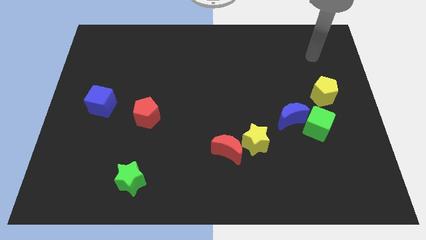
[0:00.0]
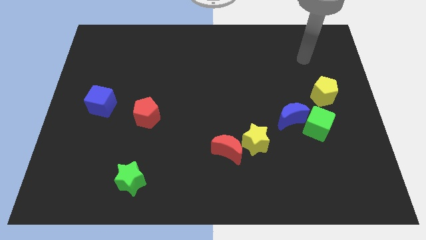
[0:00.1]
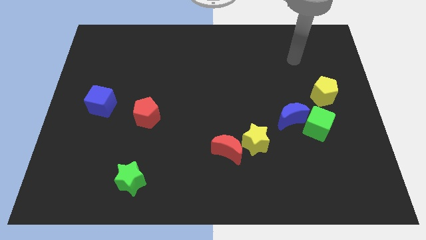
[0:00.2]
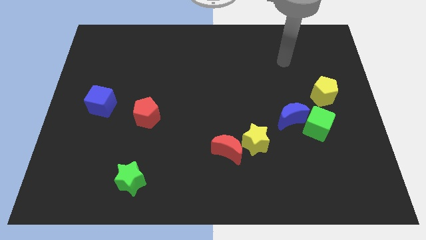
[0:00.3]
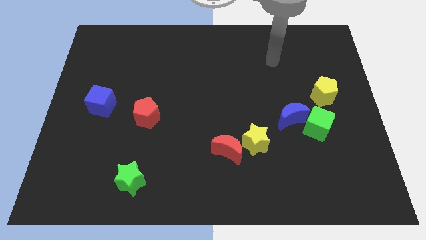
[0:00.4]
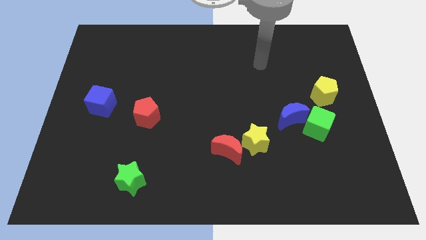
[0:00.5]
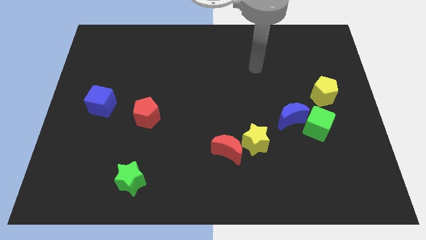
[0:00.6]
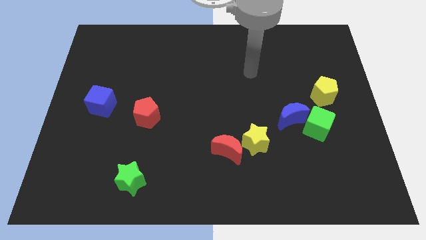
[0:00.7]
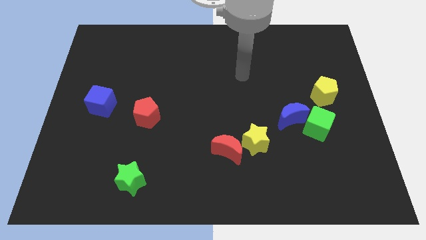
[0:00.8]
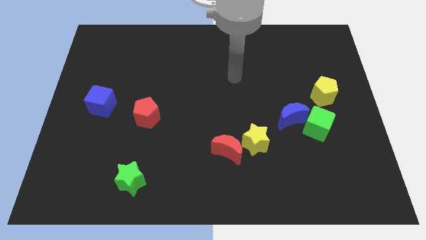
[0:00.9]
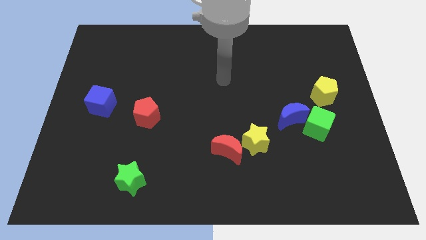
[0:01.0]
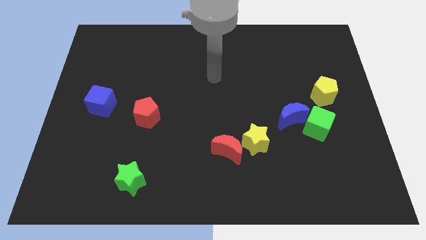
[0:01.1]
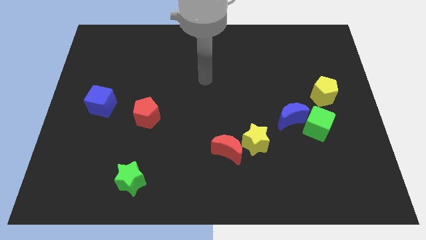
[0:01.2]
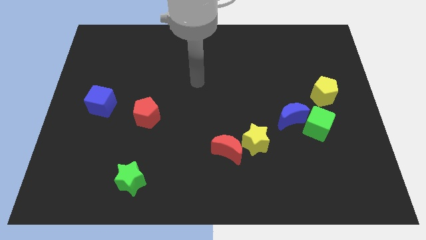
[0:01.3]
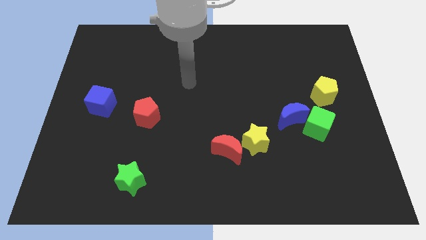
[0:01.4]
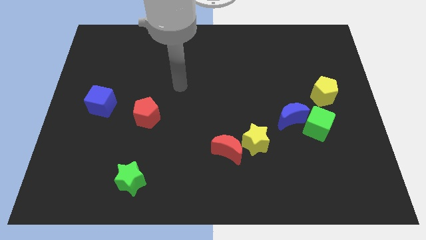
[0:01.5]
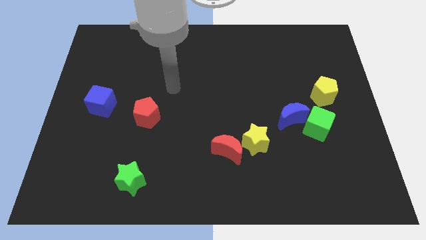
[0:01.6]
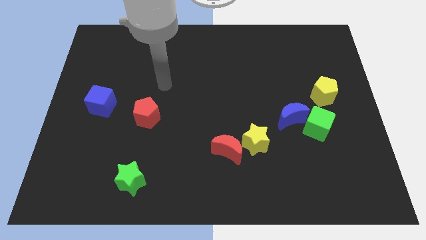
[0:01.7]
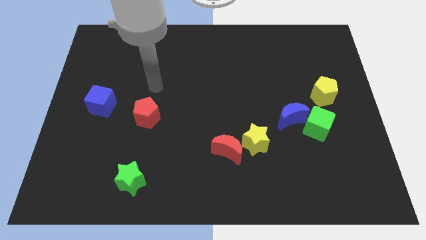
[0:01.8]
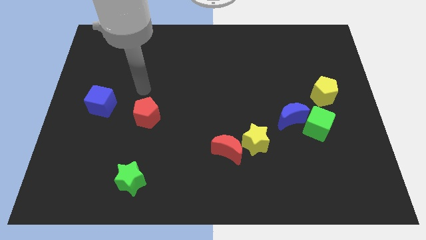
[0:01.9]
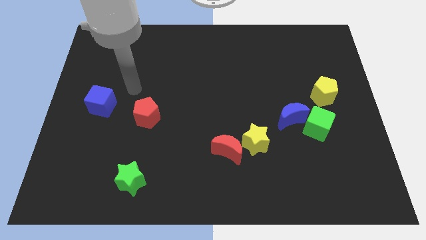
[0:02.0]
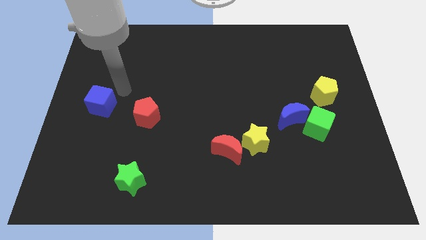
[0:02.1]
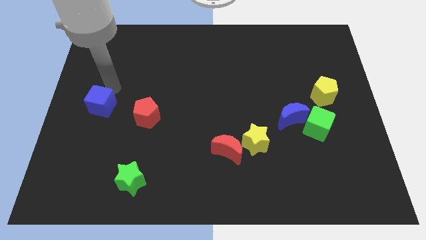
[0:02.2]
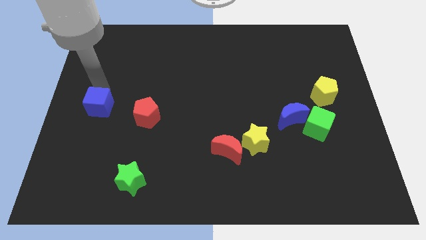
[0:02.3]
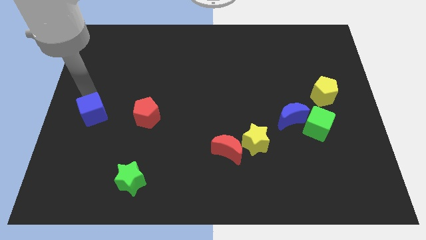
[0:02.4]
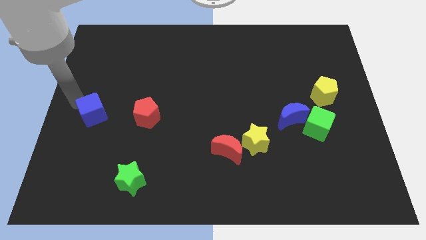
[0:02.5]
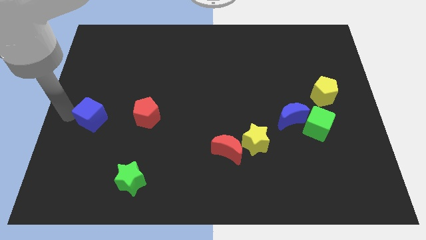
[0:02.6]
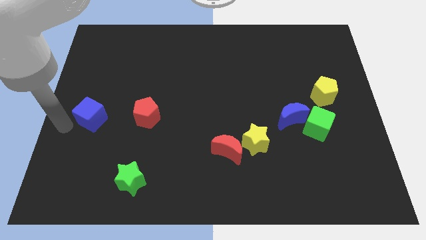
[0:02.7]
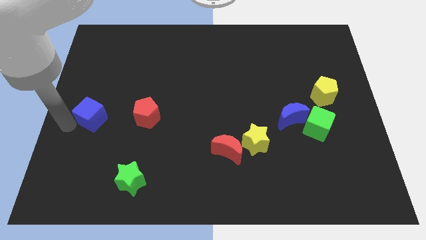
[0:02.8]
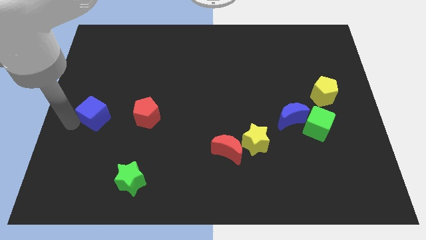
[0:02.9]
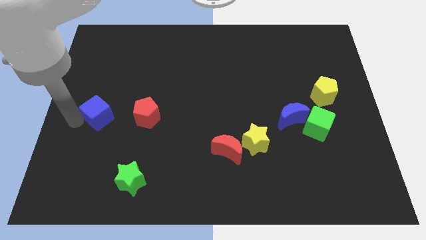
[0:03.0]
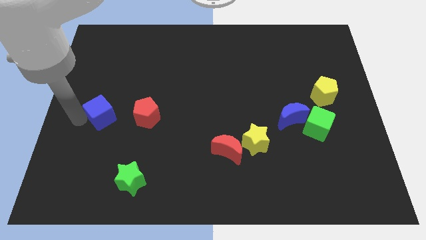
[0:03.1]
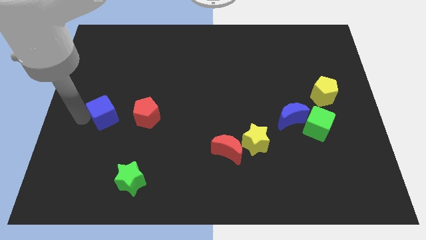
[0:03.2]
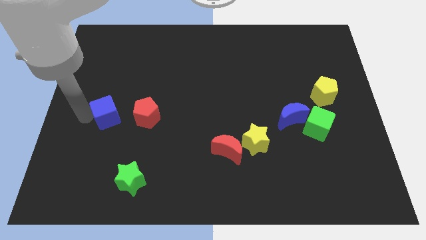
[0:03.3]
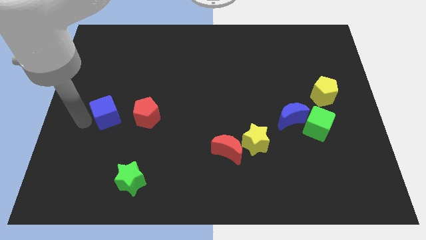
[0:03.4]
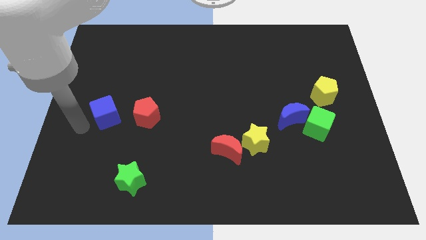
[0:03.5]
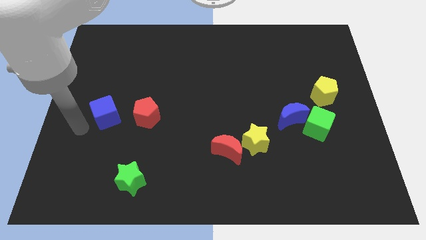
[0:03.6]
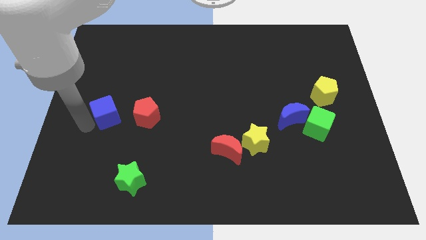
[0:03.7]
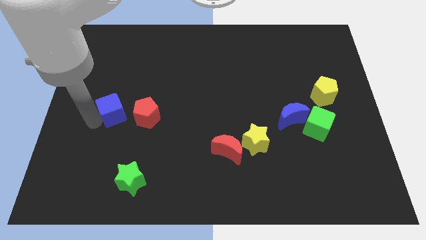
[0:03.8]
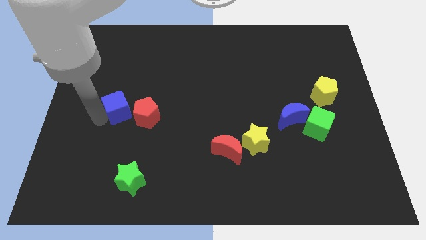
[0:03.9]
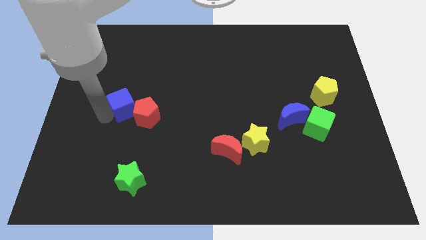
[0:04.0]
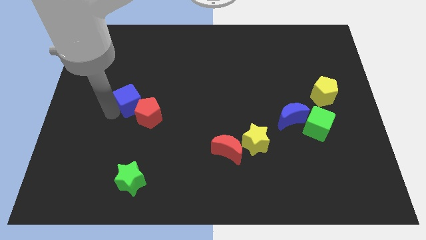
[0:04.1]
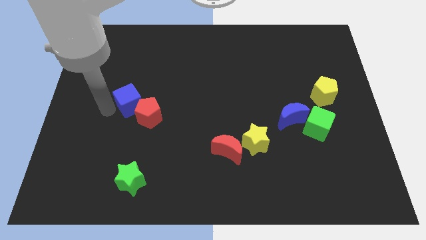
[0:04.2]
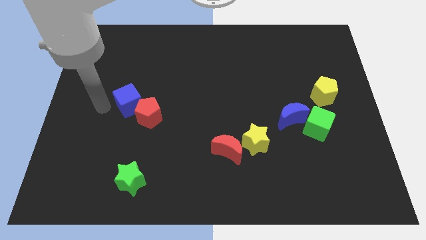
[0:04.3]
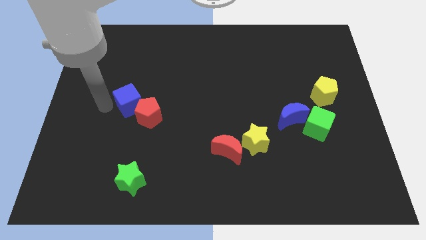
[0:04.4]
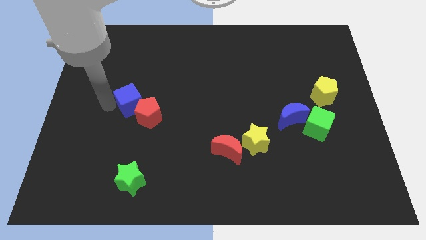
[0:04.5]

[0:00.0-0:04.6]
move the blue cube right slightly

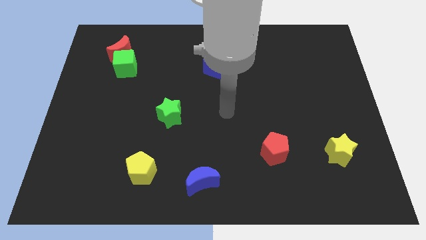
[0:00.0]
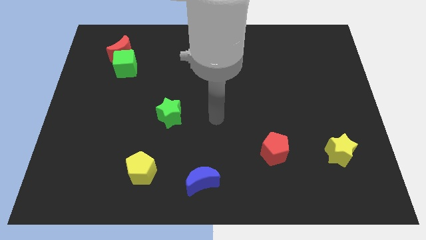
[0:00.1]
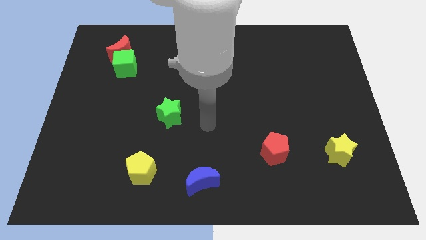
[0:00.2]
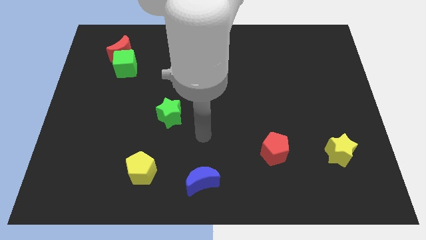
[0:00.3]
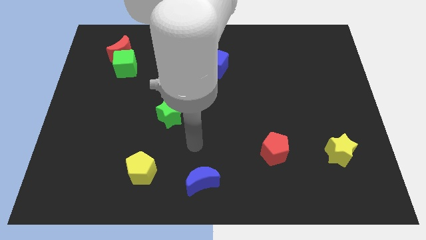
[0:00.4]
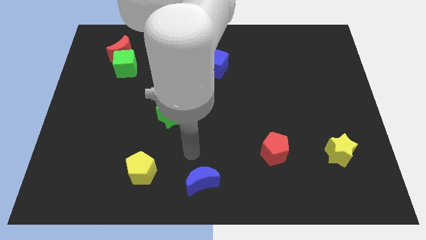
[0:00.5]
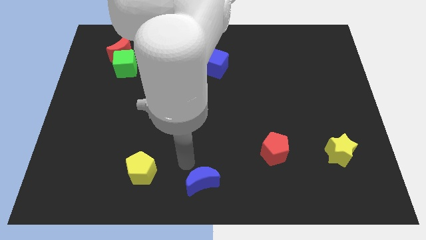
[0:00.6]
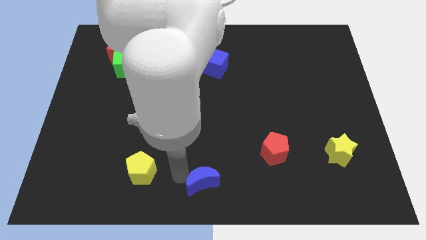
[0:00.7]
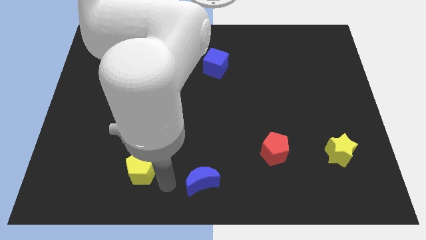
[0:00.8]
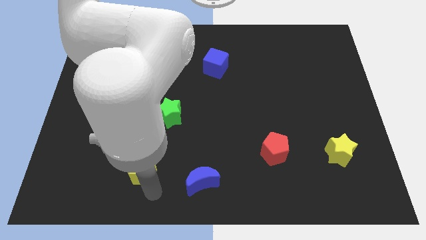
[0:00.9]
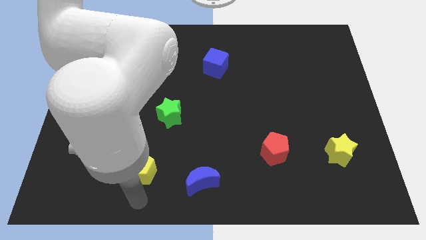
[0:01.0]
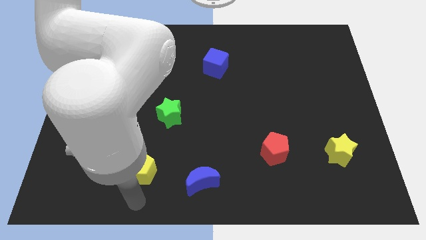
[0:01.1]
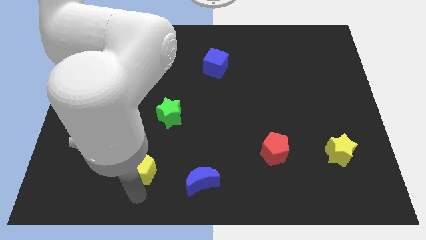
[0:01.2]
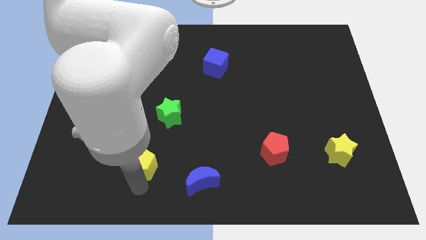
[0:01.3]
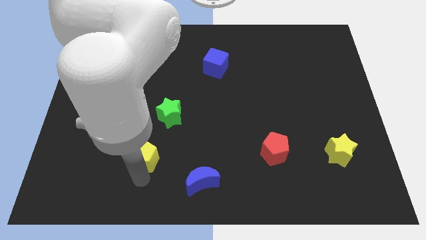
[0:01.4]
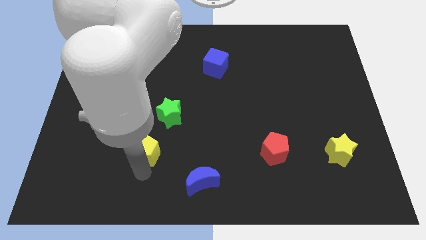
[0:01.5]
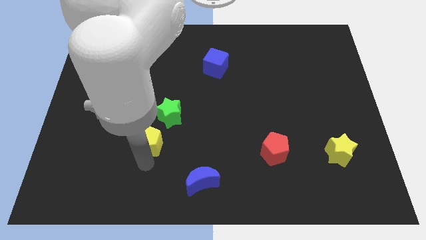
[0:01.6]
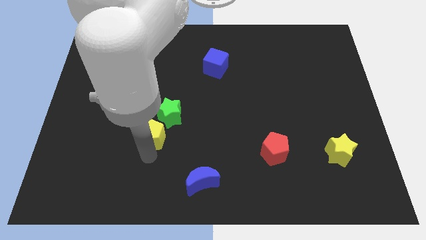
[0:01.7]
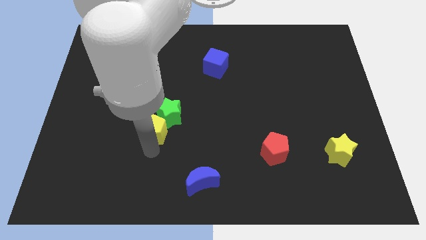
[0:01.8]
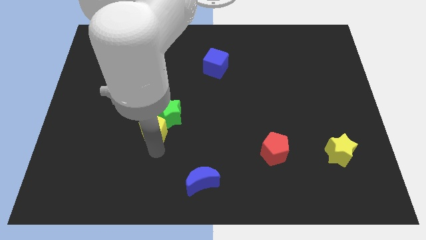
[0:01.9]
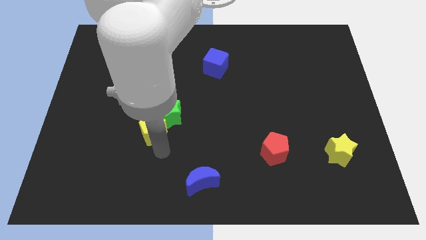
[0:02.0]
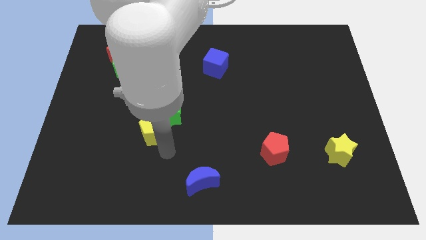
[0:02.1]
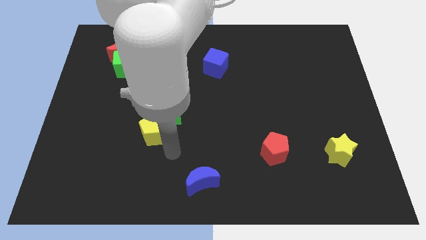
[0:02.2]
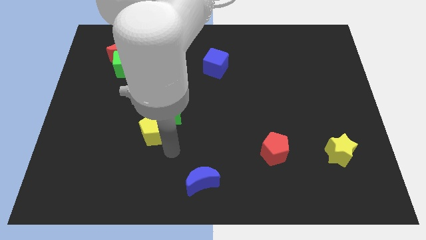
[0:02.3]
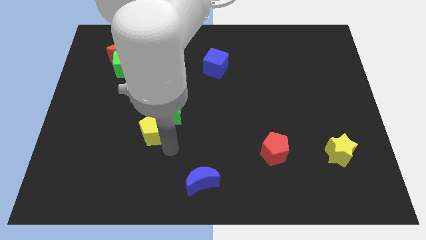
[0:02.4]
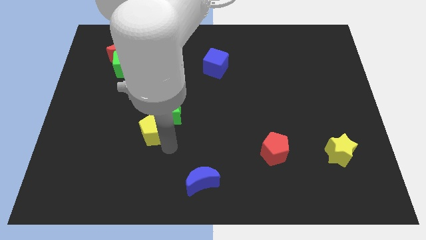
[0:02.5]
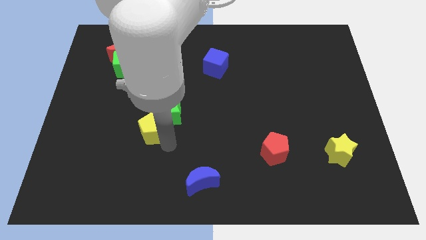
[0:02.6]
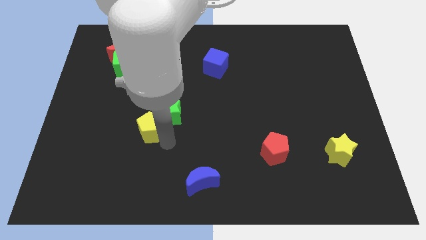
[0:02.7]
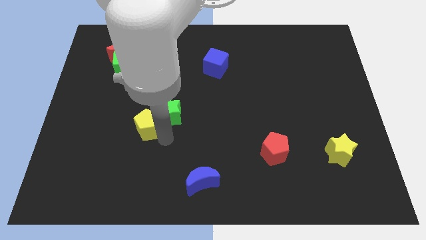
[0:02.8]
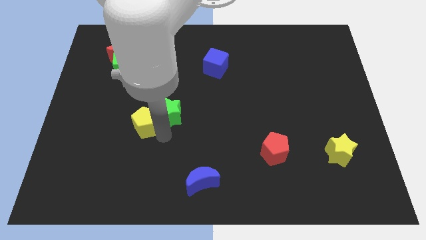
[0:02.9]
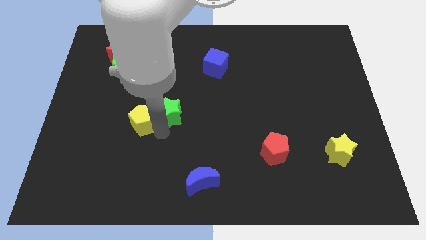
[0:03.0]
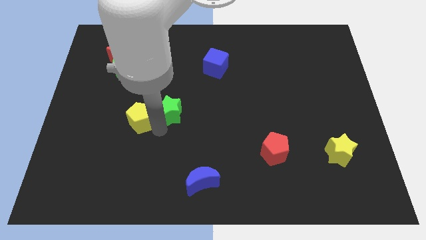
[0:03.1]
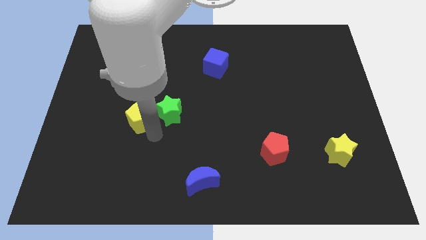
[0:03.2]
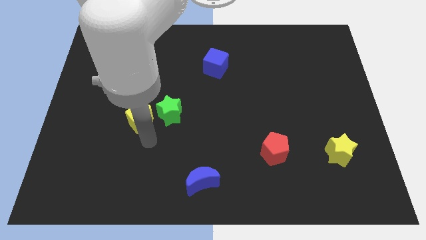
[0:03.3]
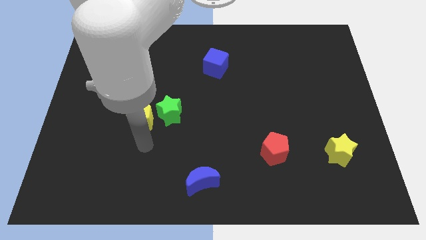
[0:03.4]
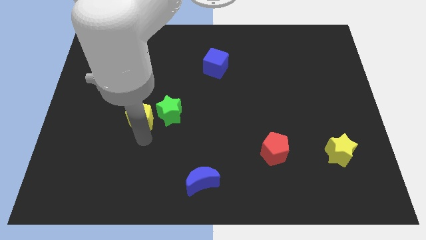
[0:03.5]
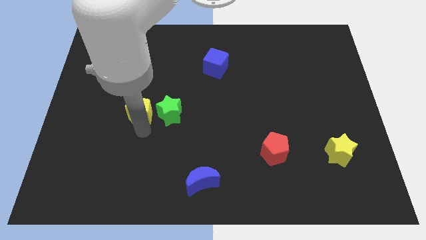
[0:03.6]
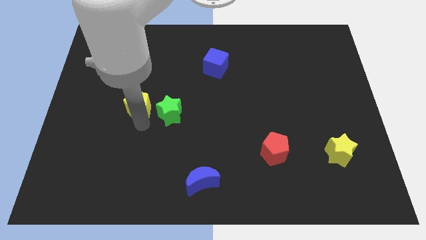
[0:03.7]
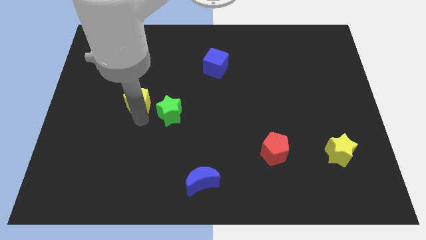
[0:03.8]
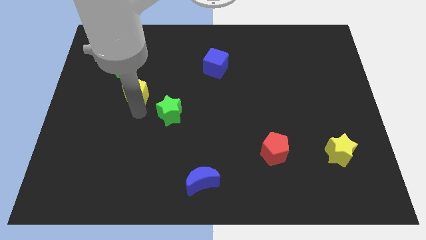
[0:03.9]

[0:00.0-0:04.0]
push the yellow pentagon up
